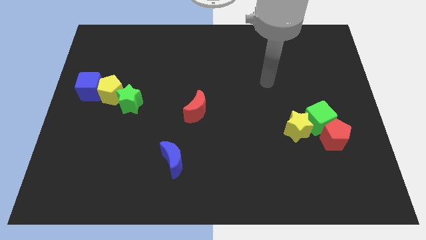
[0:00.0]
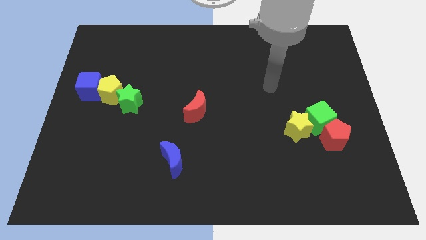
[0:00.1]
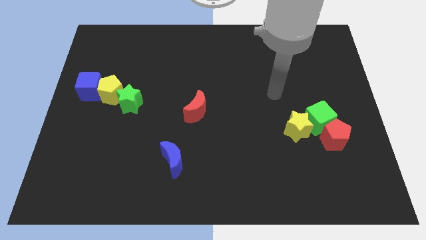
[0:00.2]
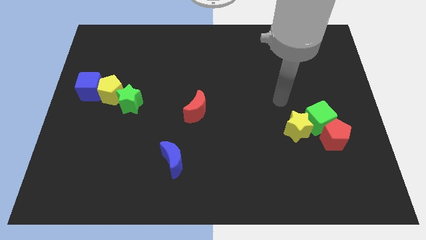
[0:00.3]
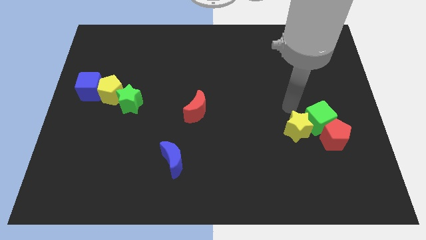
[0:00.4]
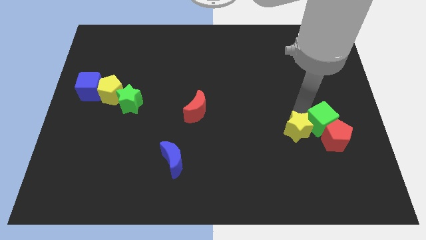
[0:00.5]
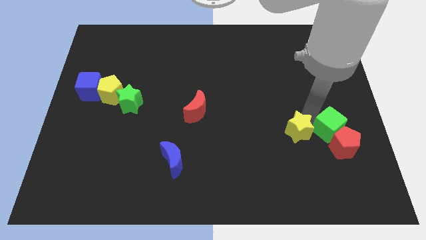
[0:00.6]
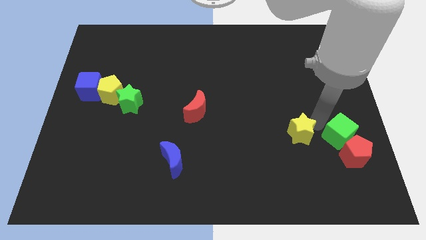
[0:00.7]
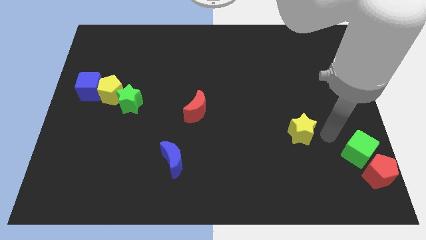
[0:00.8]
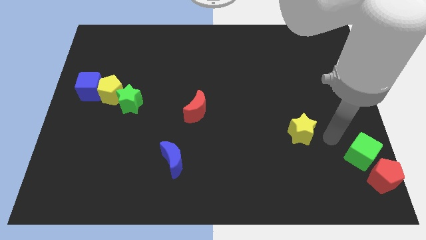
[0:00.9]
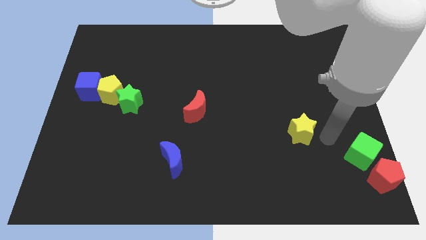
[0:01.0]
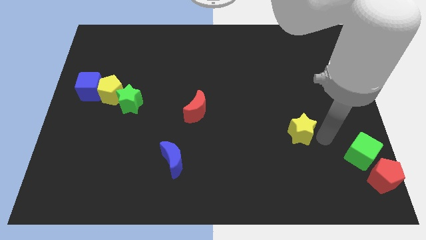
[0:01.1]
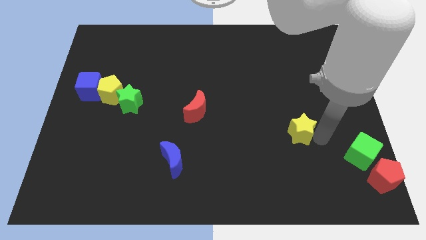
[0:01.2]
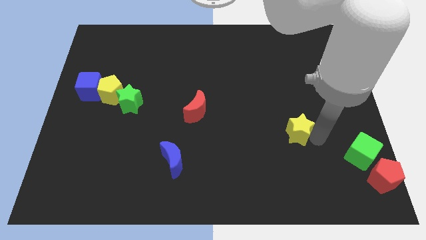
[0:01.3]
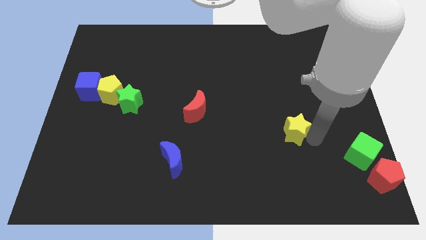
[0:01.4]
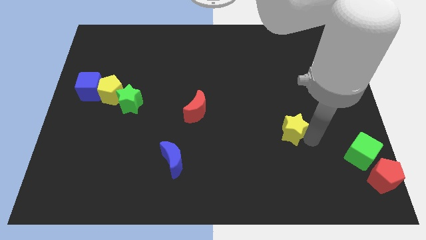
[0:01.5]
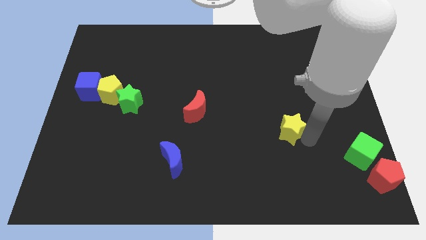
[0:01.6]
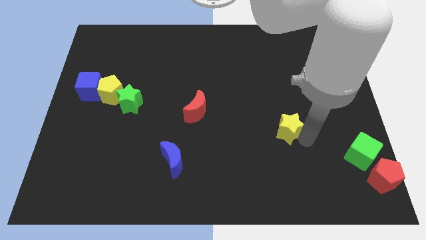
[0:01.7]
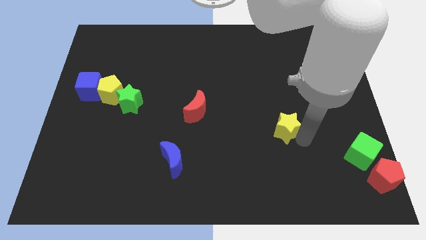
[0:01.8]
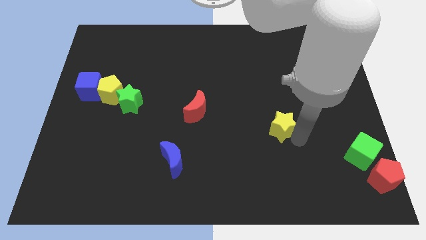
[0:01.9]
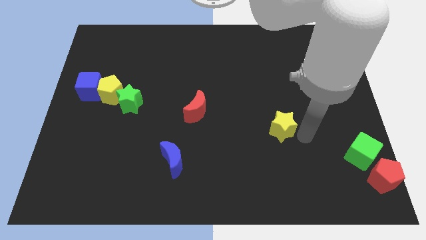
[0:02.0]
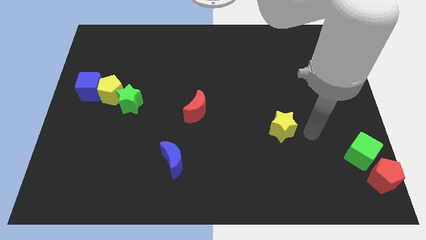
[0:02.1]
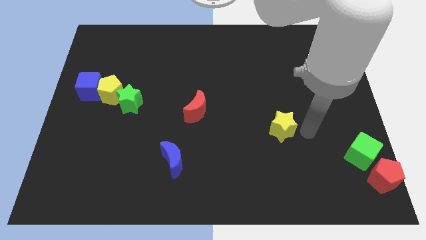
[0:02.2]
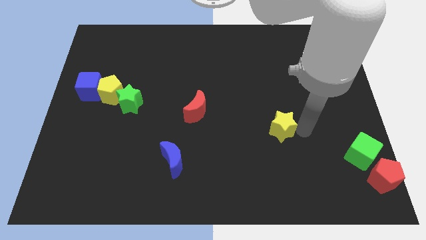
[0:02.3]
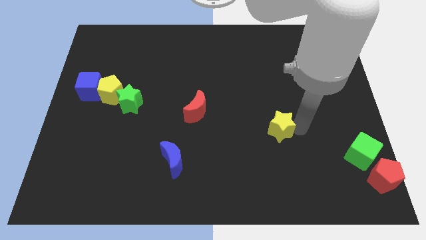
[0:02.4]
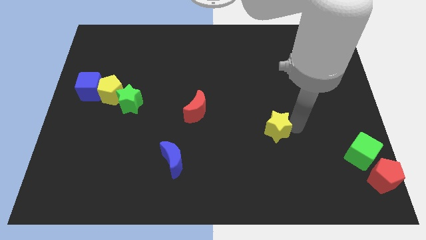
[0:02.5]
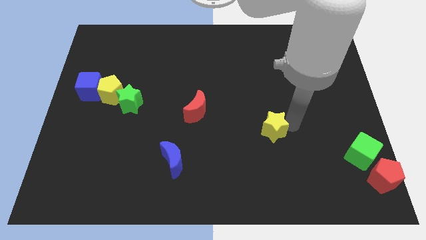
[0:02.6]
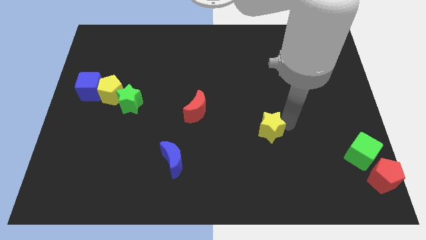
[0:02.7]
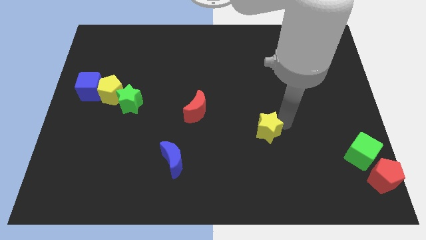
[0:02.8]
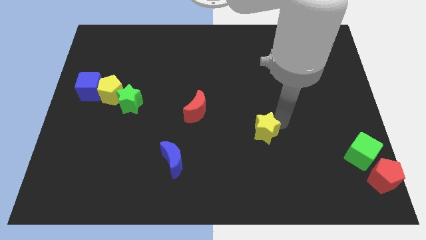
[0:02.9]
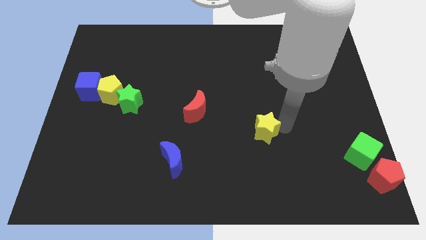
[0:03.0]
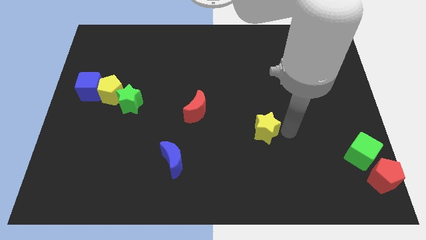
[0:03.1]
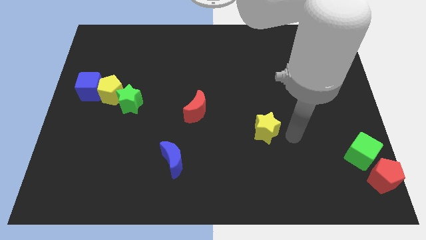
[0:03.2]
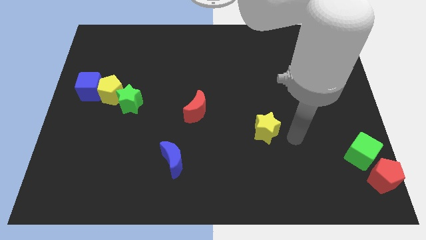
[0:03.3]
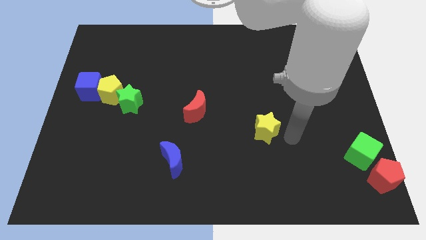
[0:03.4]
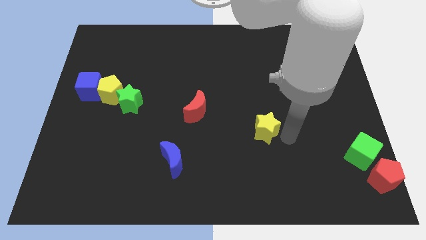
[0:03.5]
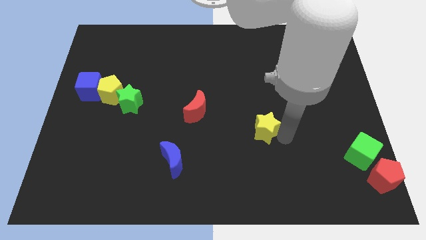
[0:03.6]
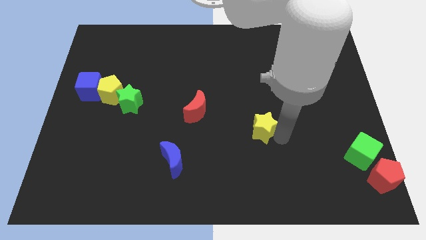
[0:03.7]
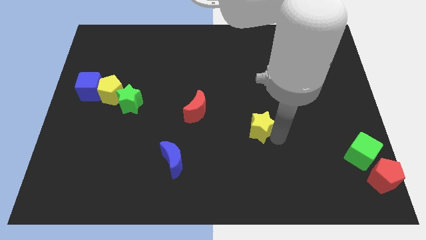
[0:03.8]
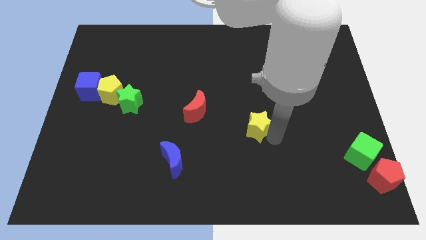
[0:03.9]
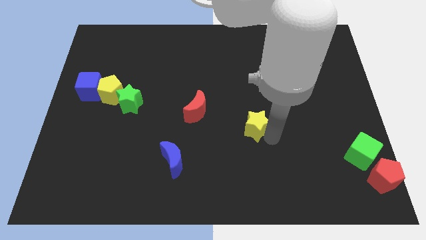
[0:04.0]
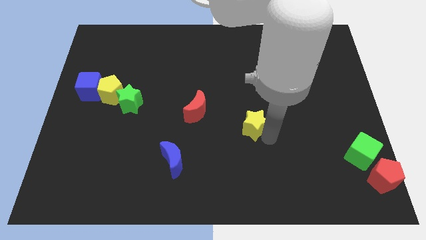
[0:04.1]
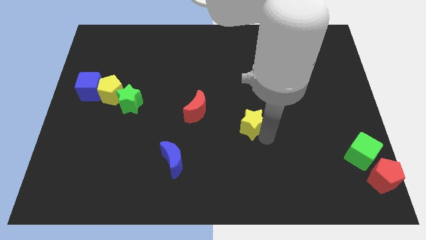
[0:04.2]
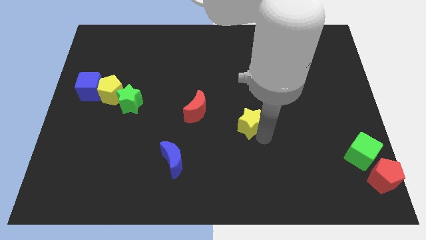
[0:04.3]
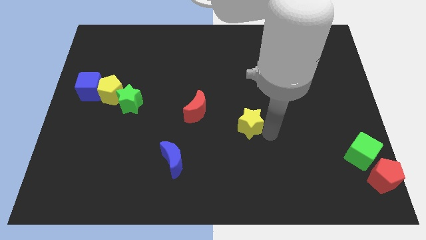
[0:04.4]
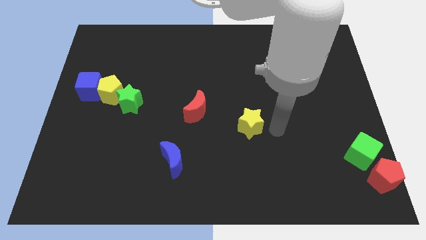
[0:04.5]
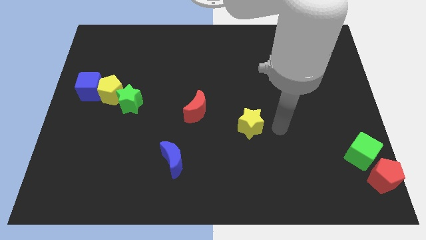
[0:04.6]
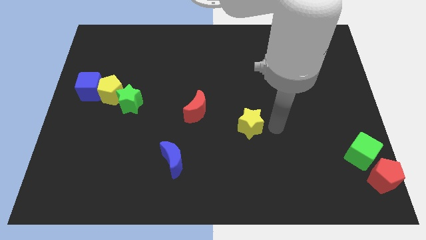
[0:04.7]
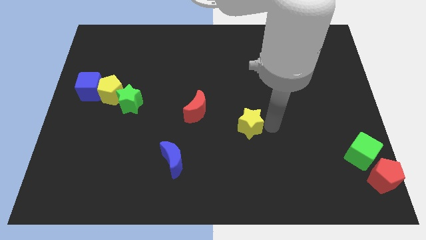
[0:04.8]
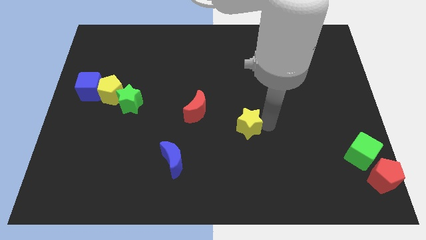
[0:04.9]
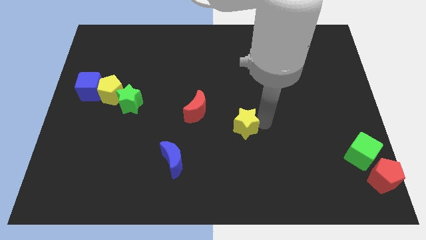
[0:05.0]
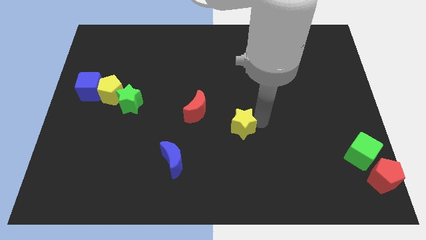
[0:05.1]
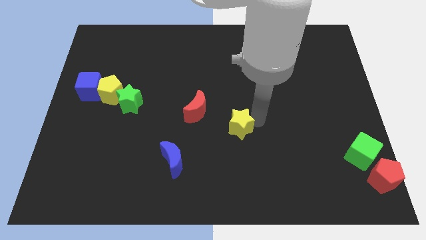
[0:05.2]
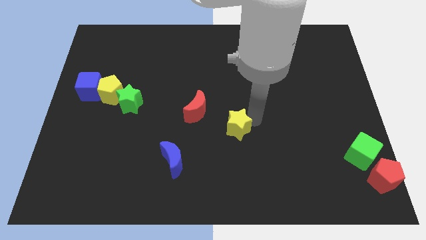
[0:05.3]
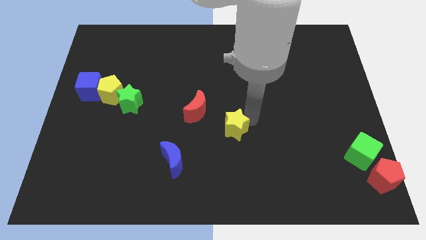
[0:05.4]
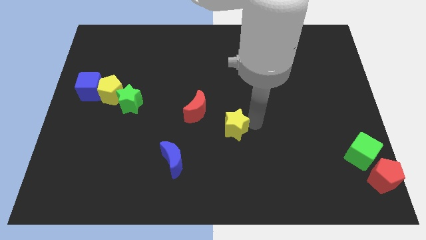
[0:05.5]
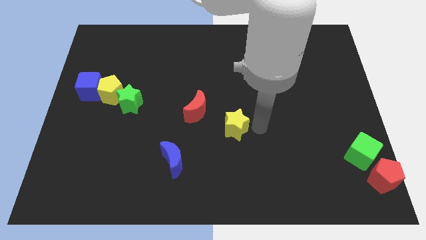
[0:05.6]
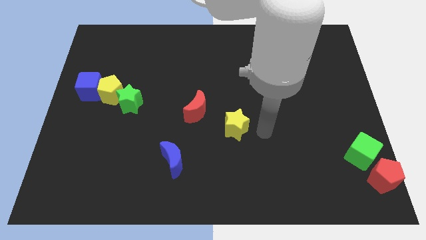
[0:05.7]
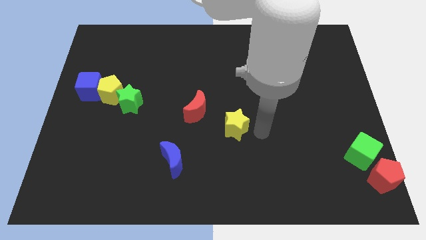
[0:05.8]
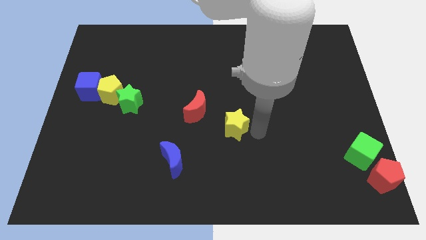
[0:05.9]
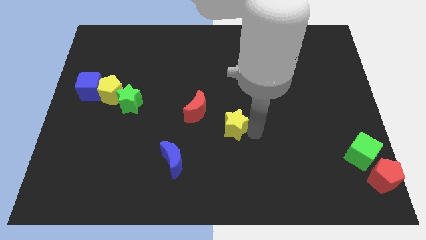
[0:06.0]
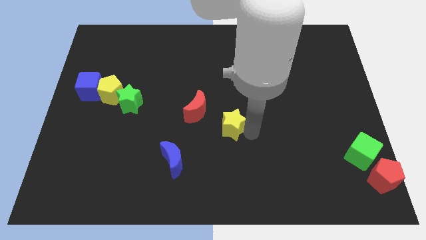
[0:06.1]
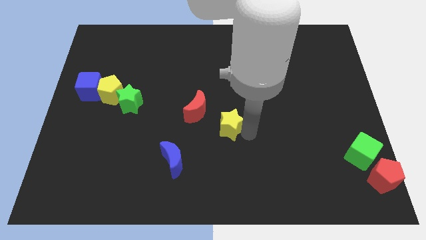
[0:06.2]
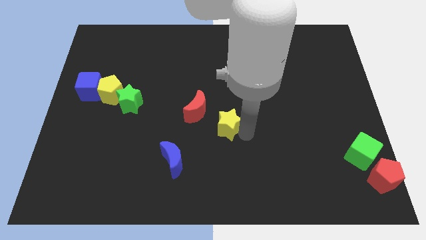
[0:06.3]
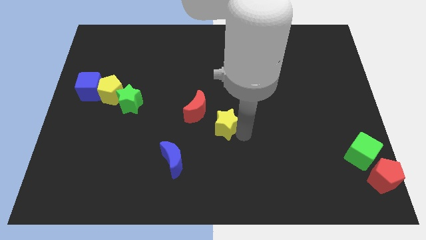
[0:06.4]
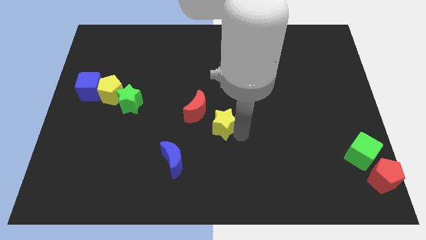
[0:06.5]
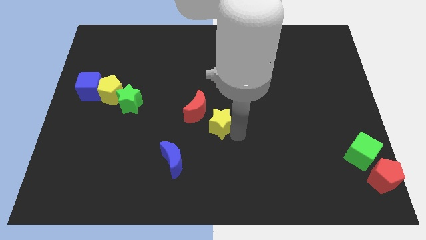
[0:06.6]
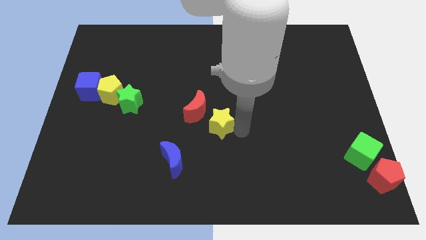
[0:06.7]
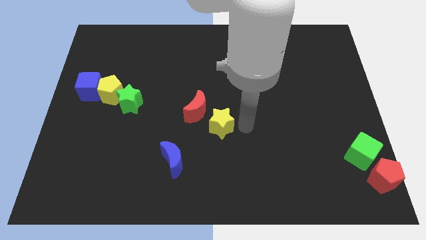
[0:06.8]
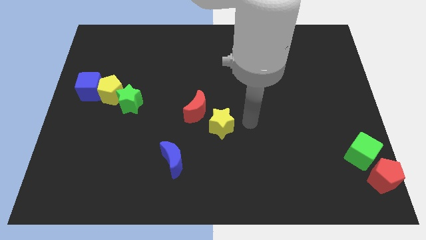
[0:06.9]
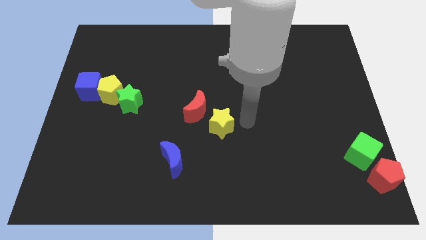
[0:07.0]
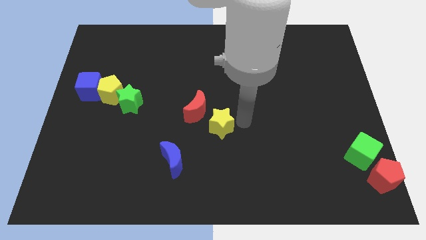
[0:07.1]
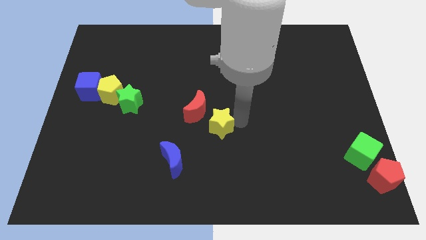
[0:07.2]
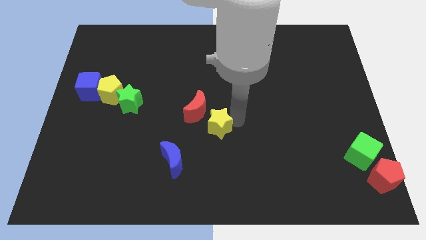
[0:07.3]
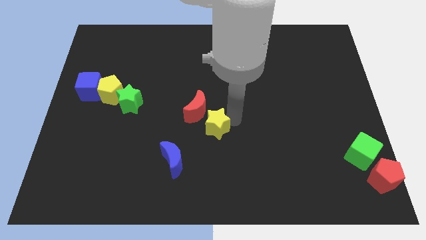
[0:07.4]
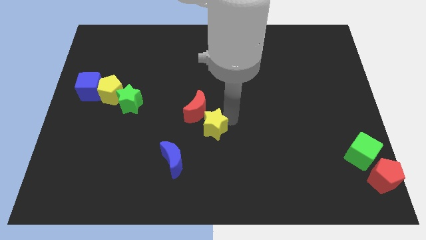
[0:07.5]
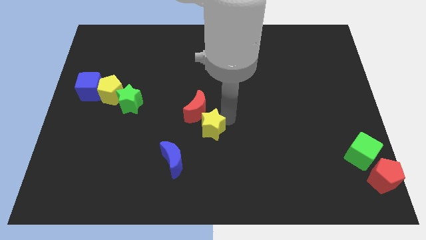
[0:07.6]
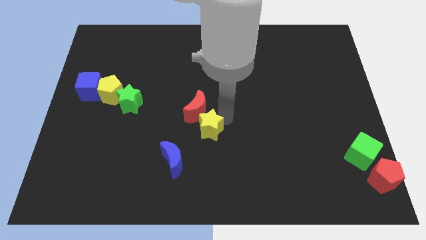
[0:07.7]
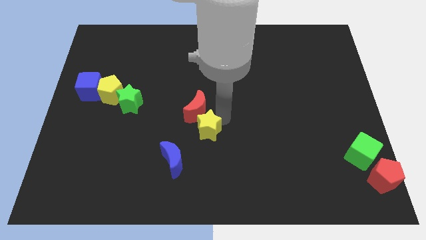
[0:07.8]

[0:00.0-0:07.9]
slide the yellow star left

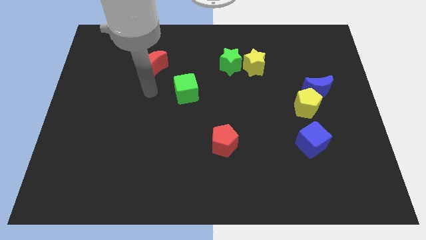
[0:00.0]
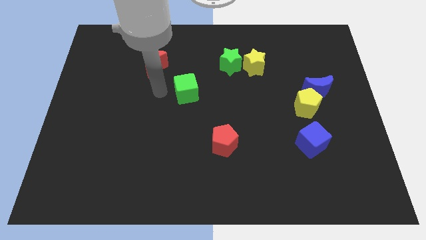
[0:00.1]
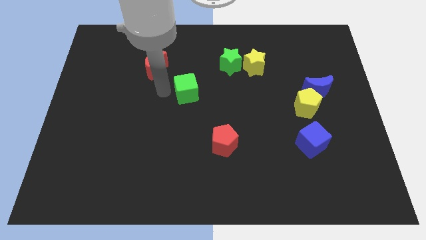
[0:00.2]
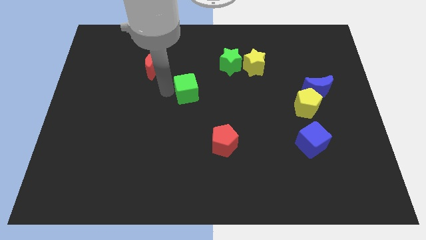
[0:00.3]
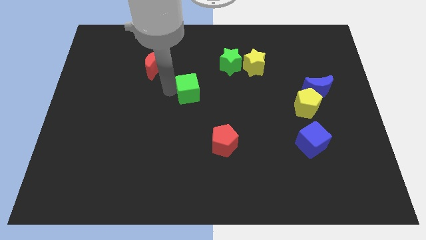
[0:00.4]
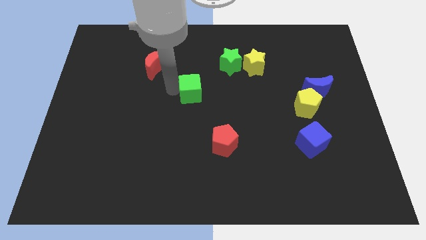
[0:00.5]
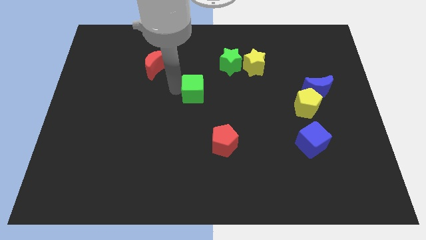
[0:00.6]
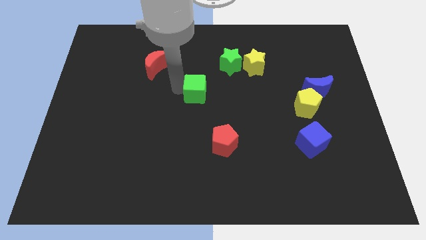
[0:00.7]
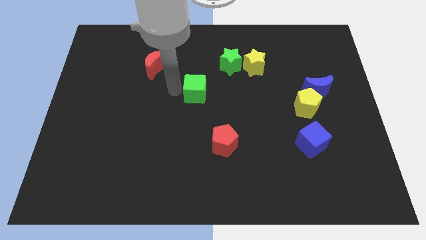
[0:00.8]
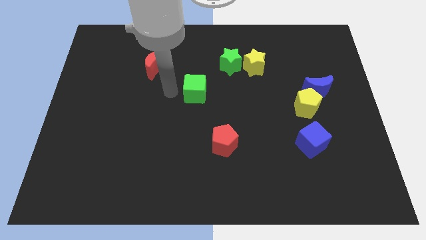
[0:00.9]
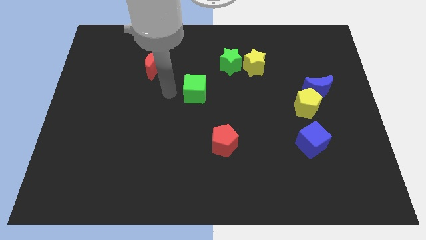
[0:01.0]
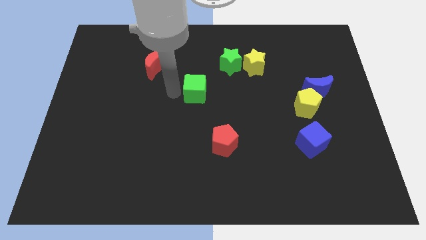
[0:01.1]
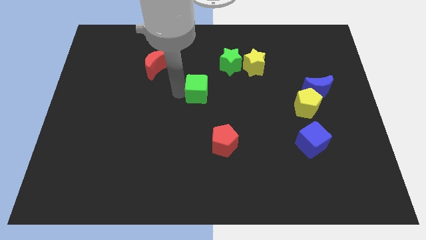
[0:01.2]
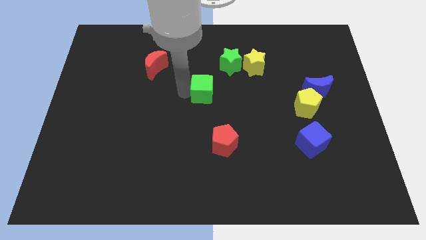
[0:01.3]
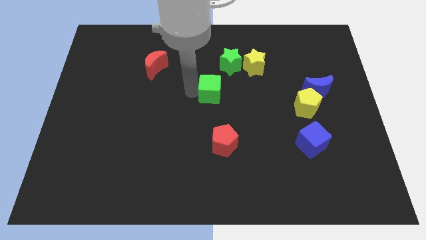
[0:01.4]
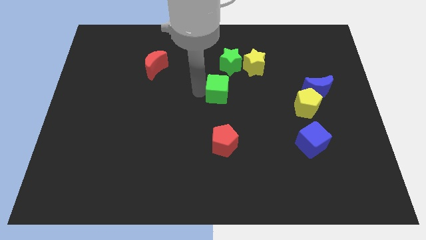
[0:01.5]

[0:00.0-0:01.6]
move the green cube a bit right
